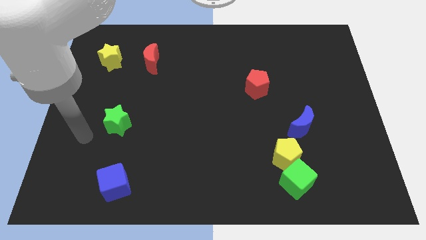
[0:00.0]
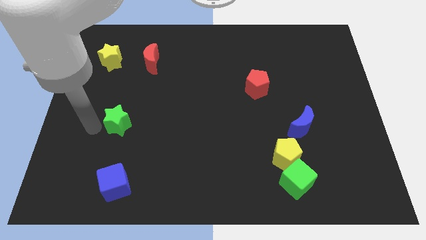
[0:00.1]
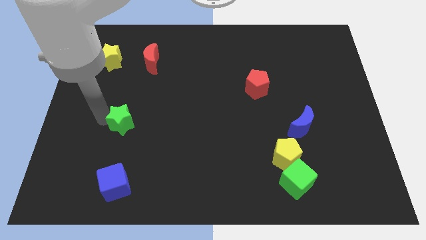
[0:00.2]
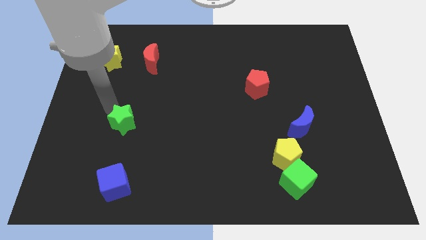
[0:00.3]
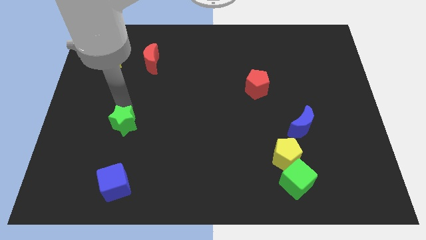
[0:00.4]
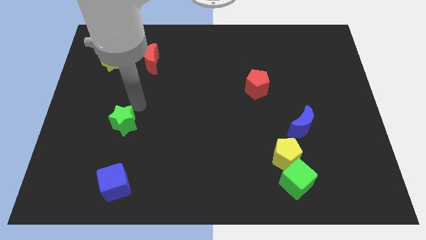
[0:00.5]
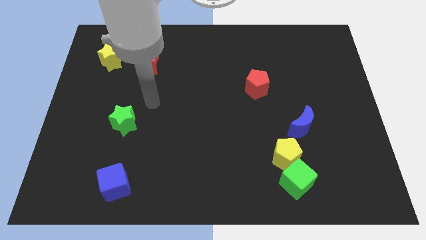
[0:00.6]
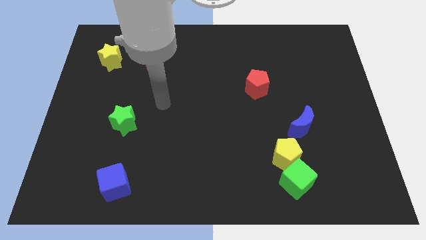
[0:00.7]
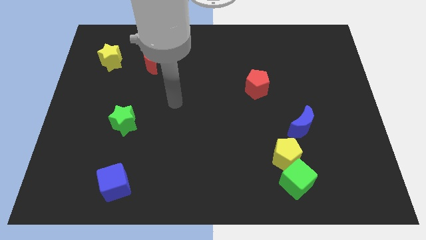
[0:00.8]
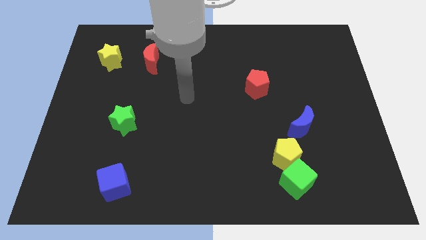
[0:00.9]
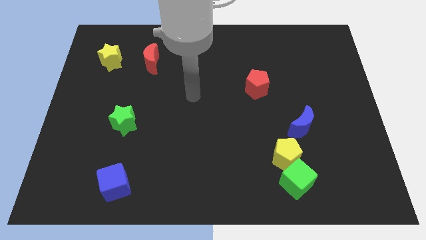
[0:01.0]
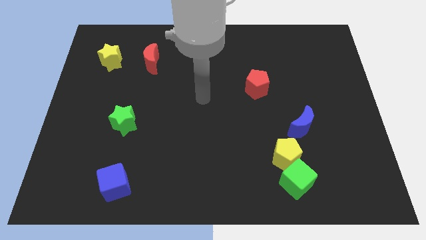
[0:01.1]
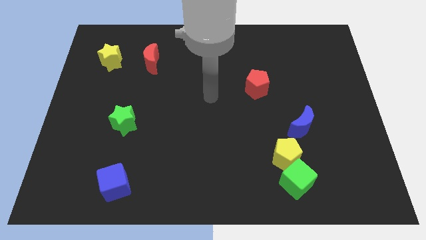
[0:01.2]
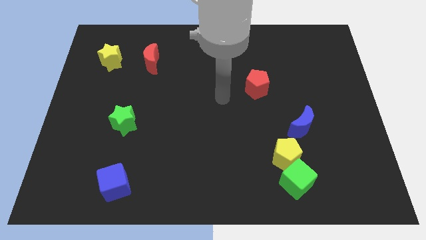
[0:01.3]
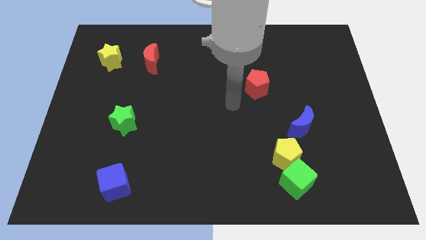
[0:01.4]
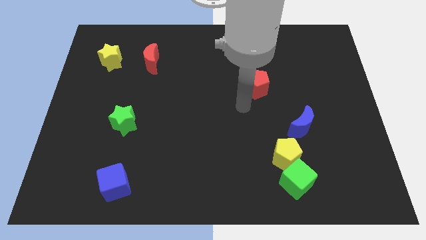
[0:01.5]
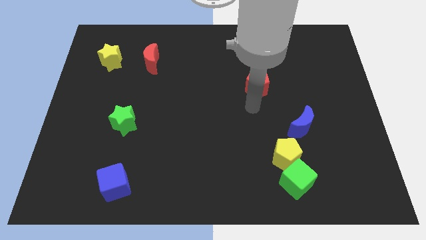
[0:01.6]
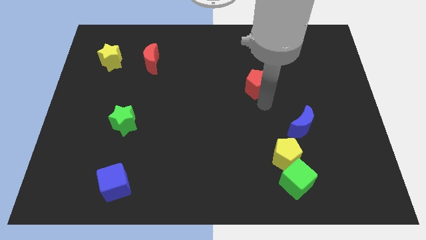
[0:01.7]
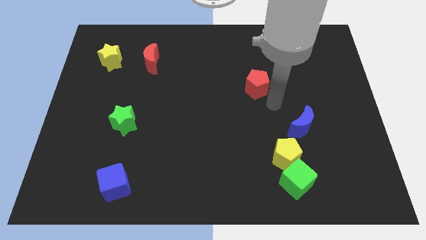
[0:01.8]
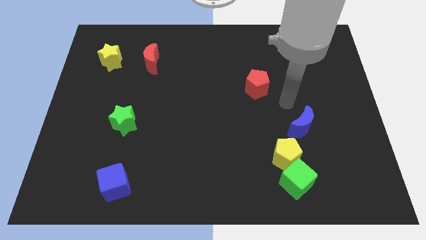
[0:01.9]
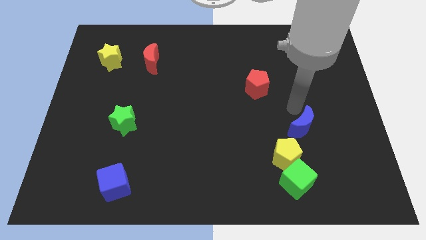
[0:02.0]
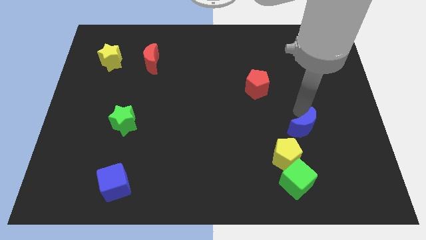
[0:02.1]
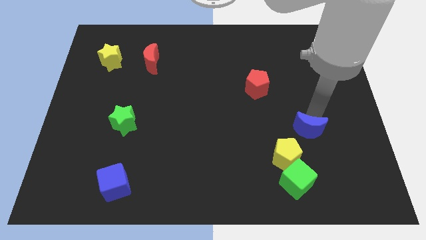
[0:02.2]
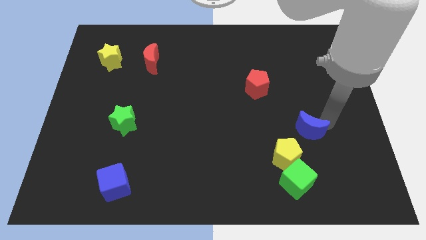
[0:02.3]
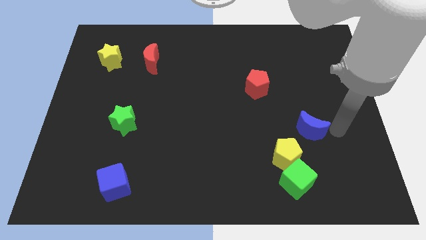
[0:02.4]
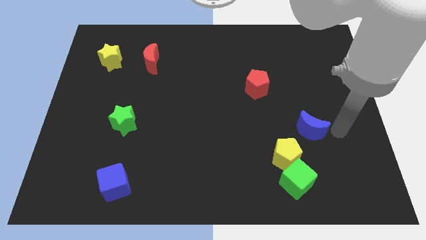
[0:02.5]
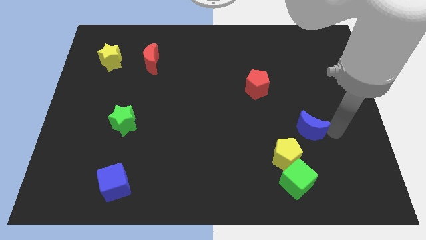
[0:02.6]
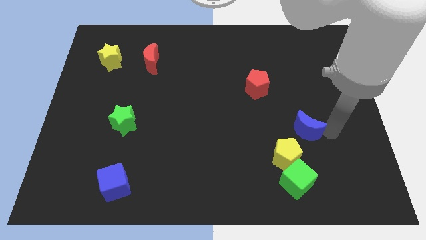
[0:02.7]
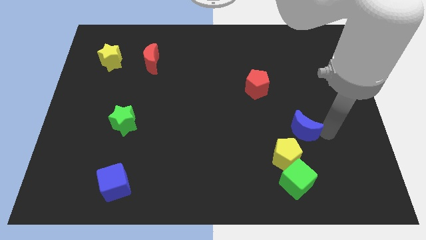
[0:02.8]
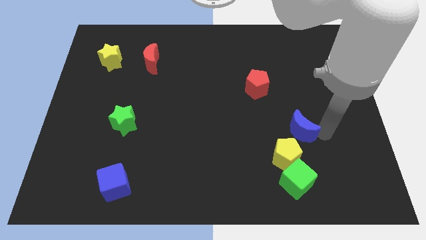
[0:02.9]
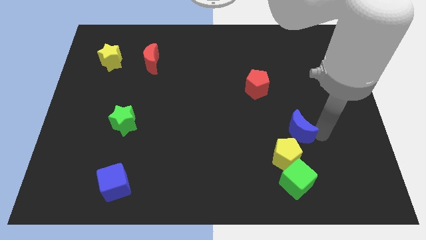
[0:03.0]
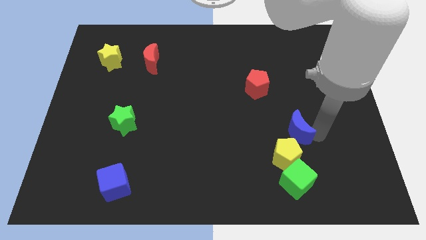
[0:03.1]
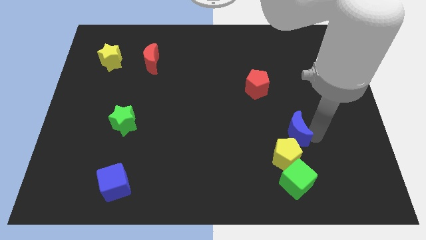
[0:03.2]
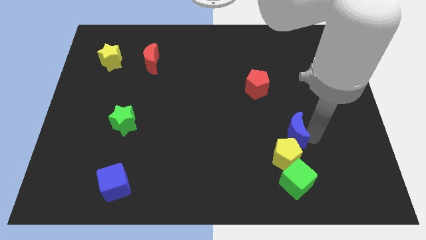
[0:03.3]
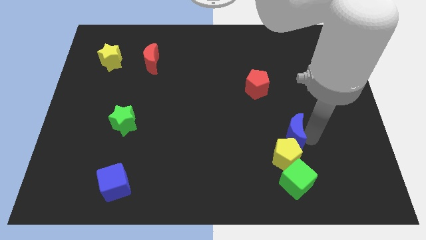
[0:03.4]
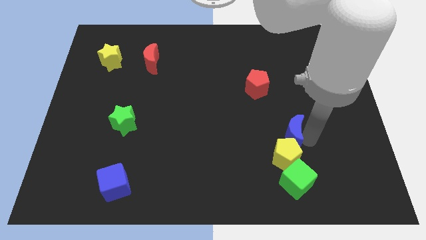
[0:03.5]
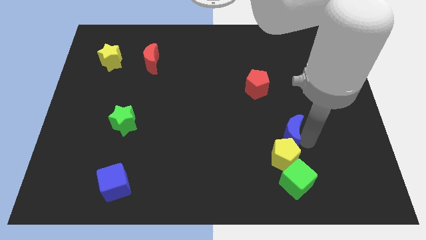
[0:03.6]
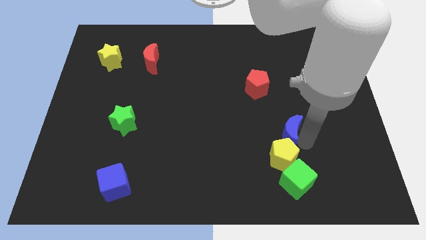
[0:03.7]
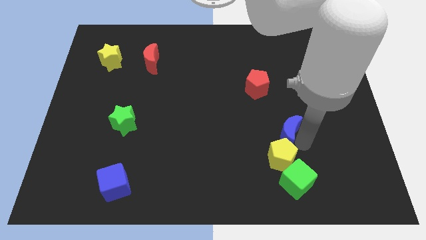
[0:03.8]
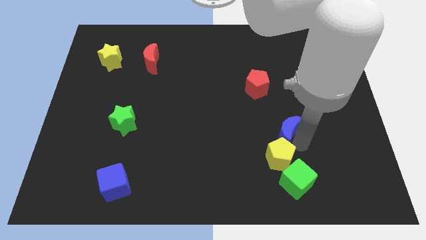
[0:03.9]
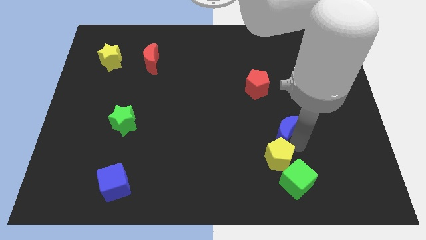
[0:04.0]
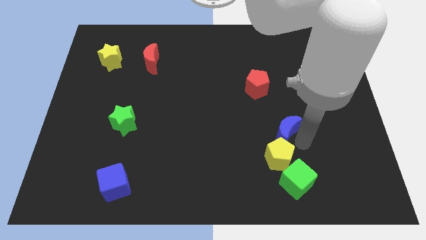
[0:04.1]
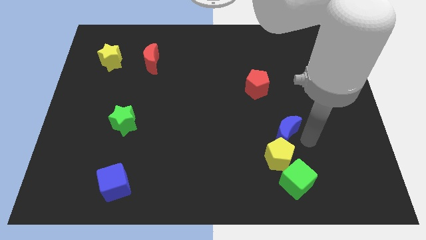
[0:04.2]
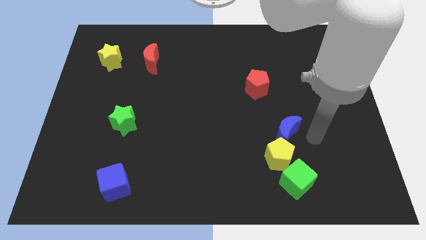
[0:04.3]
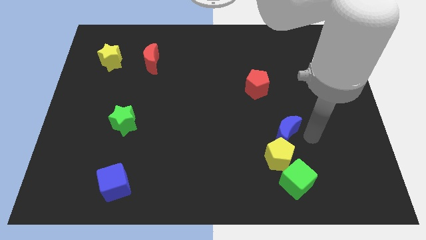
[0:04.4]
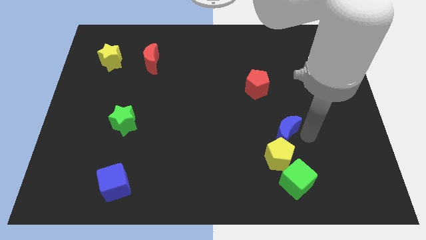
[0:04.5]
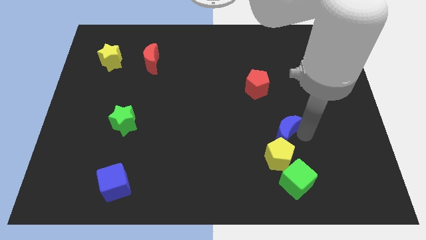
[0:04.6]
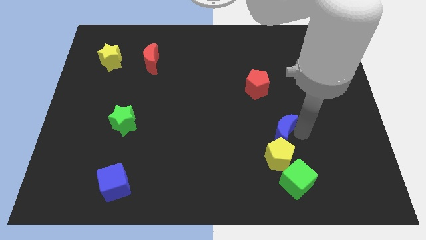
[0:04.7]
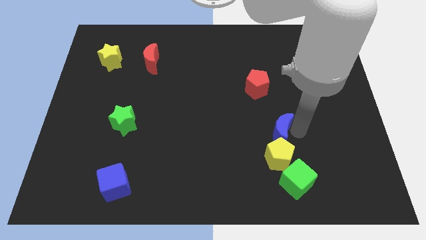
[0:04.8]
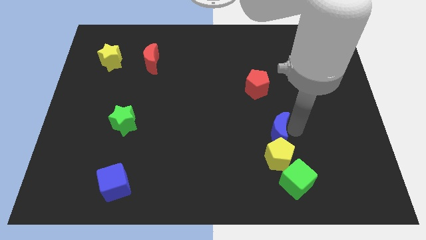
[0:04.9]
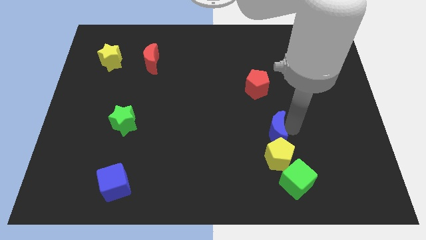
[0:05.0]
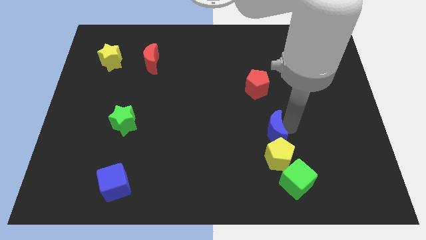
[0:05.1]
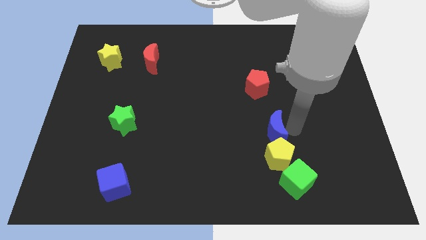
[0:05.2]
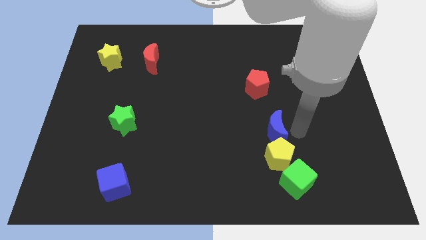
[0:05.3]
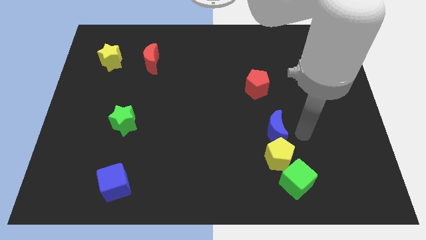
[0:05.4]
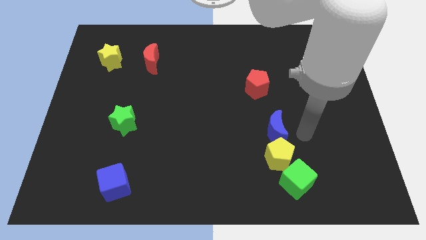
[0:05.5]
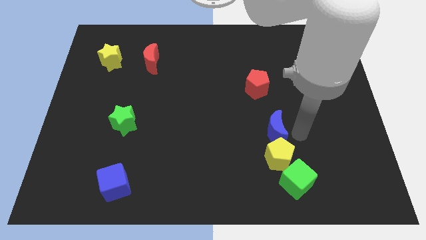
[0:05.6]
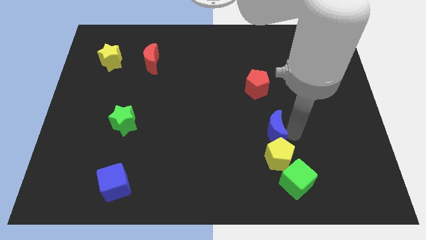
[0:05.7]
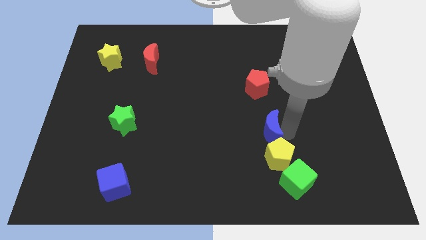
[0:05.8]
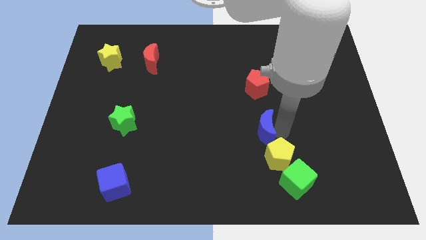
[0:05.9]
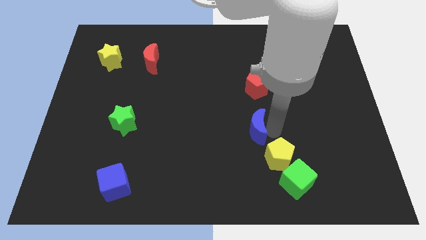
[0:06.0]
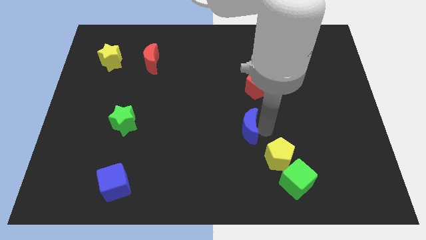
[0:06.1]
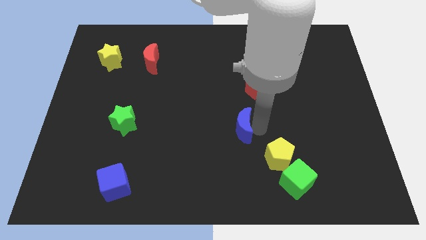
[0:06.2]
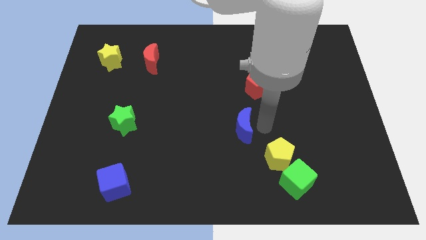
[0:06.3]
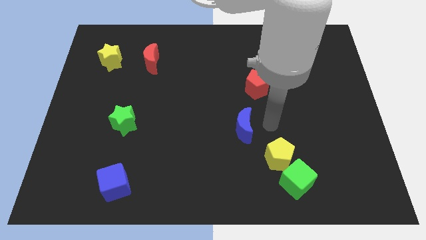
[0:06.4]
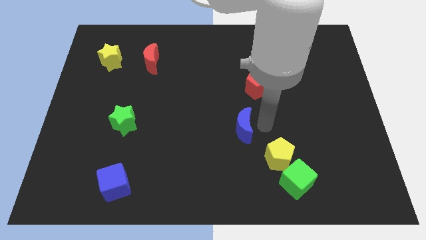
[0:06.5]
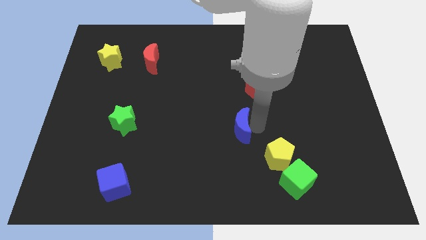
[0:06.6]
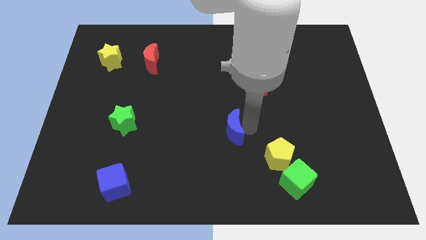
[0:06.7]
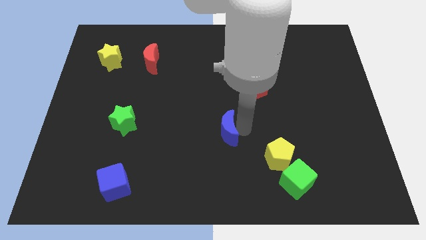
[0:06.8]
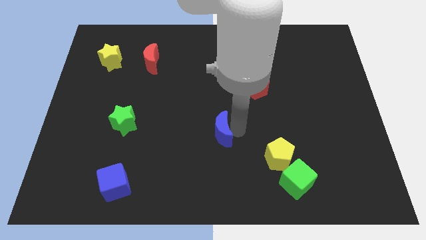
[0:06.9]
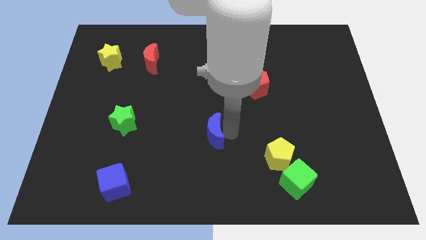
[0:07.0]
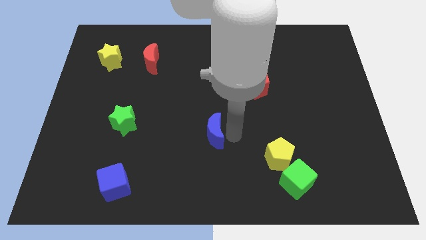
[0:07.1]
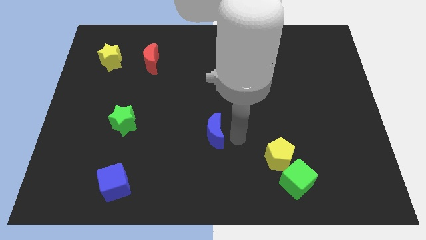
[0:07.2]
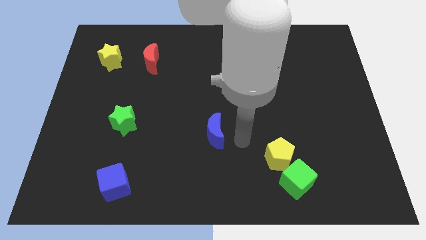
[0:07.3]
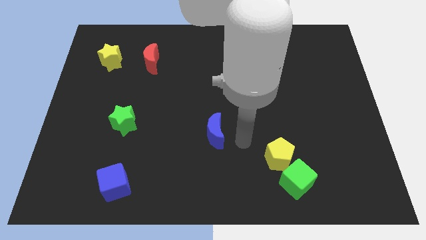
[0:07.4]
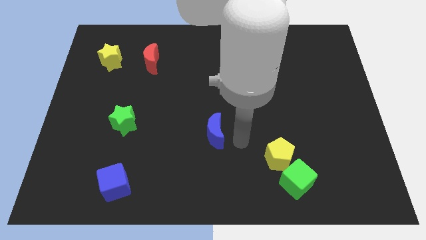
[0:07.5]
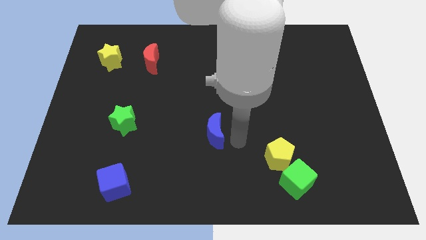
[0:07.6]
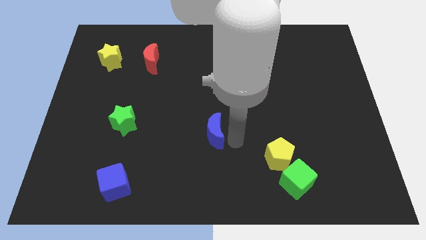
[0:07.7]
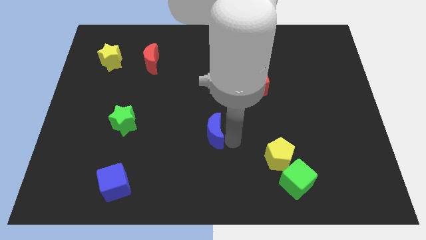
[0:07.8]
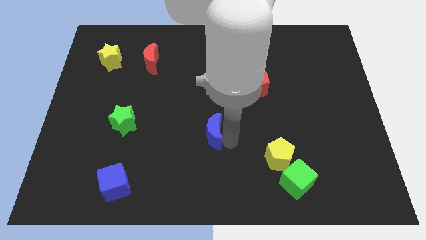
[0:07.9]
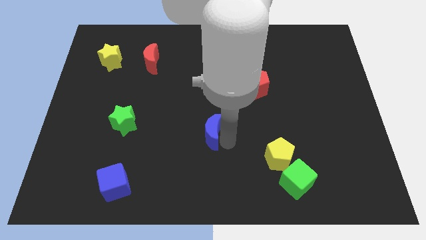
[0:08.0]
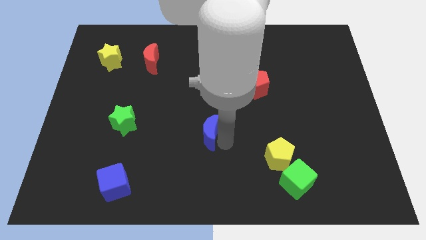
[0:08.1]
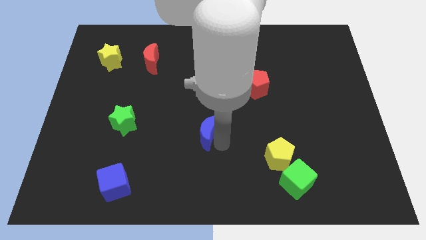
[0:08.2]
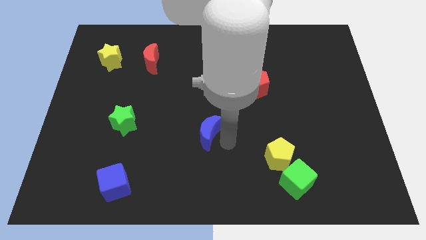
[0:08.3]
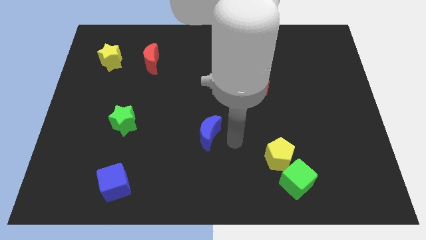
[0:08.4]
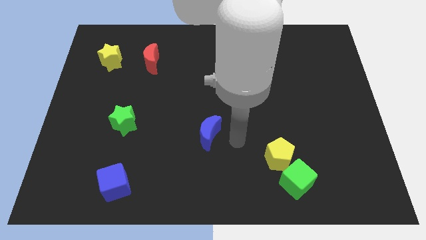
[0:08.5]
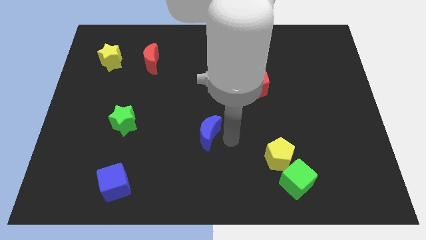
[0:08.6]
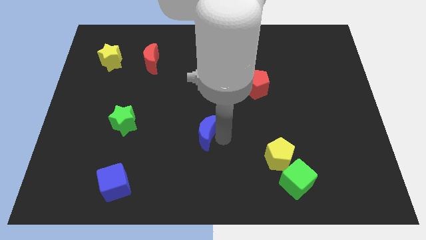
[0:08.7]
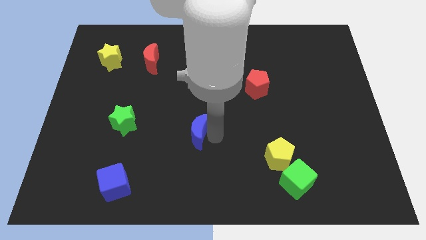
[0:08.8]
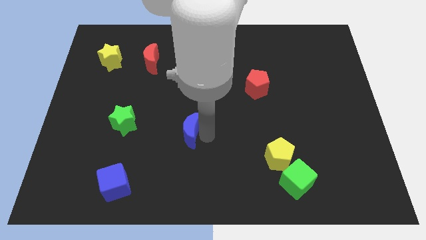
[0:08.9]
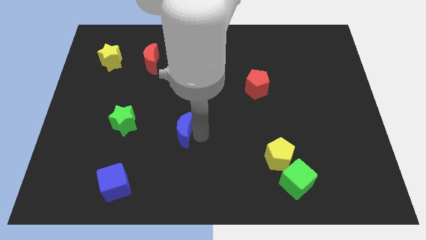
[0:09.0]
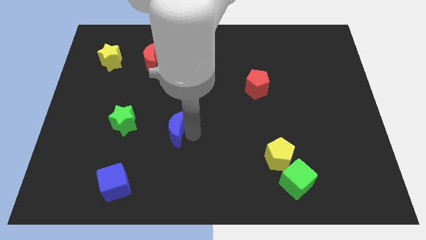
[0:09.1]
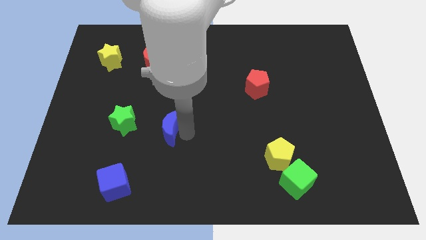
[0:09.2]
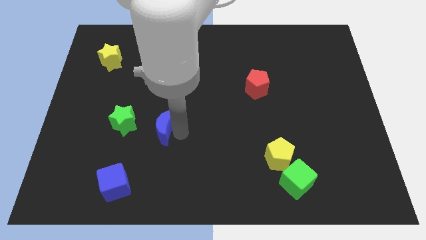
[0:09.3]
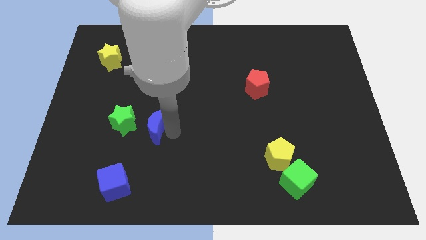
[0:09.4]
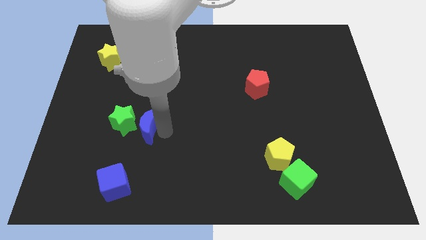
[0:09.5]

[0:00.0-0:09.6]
put the blue moon towards the green star
